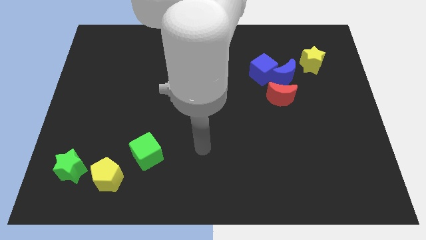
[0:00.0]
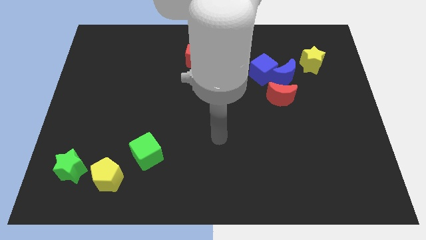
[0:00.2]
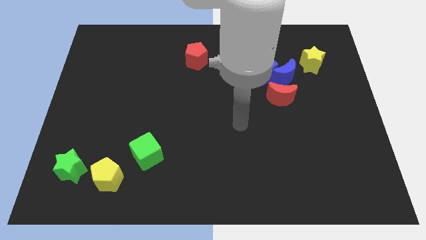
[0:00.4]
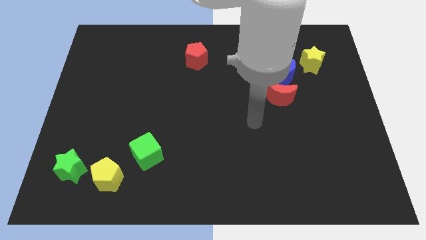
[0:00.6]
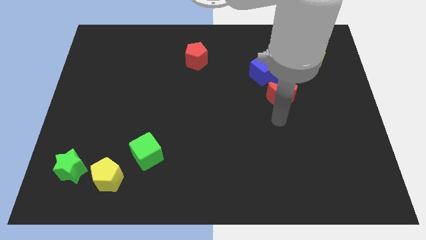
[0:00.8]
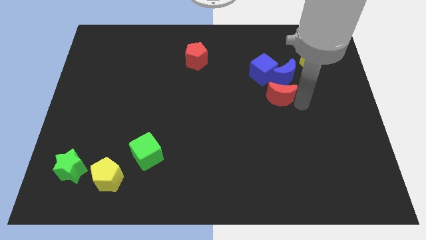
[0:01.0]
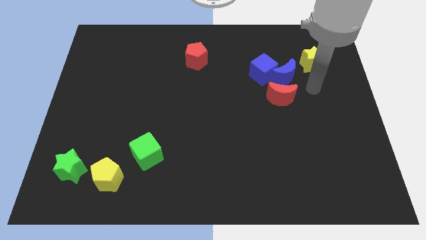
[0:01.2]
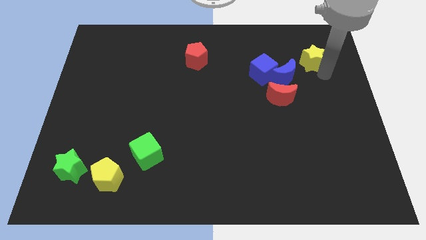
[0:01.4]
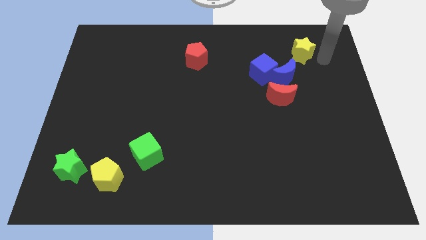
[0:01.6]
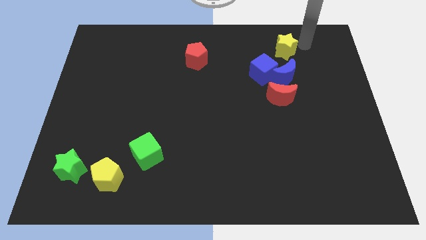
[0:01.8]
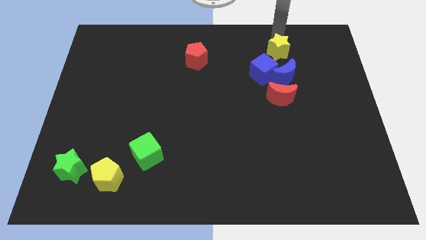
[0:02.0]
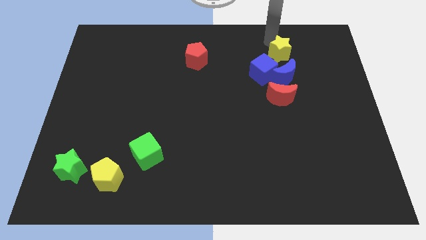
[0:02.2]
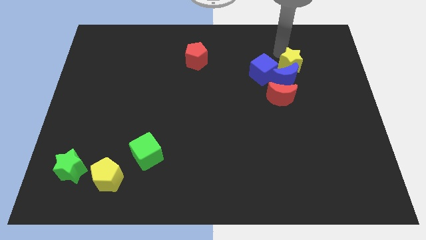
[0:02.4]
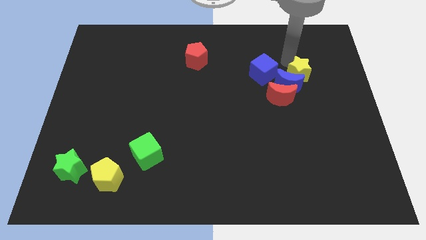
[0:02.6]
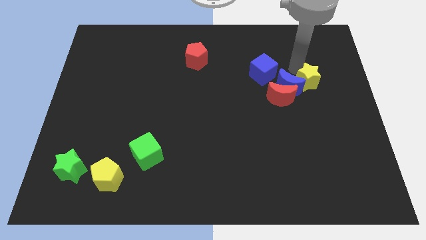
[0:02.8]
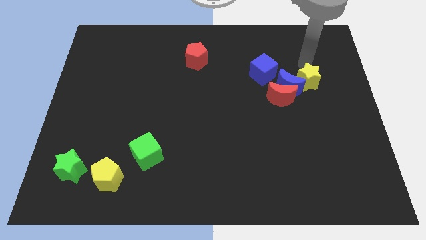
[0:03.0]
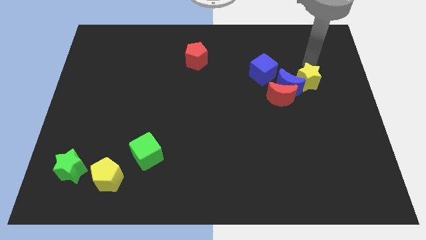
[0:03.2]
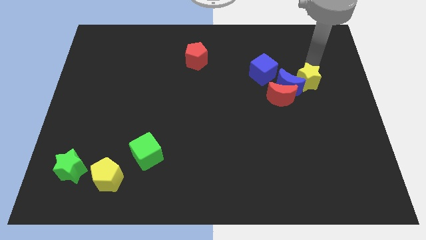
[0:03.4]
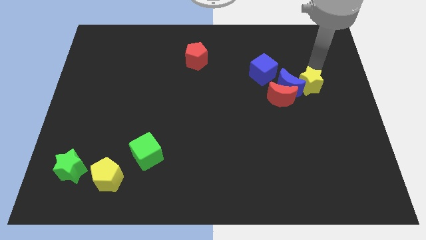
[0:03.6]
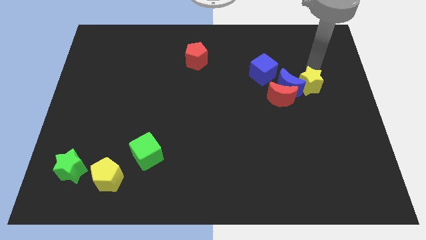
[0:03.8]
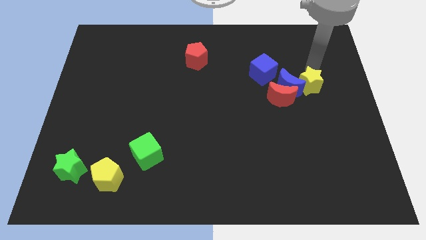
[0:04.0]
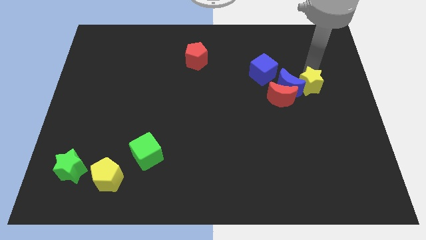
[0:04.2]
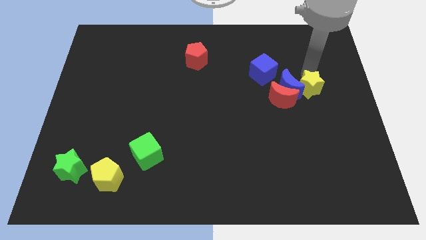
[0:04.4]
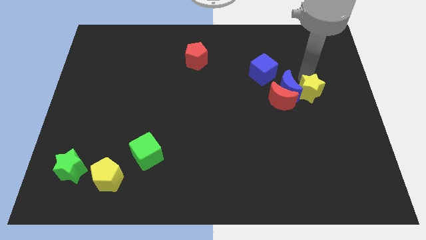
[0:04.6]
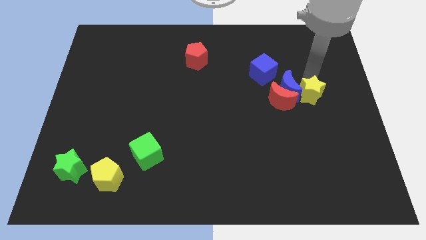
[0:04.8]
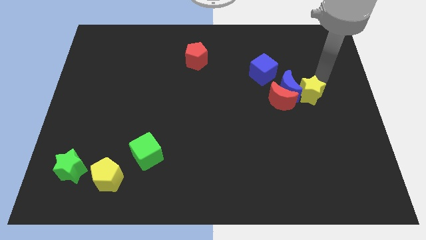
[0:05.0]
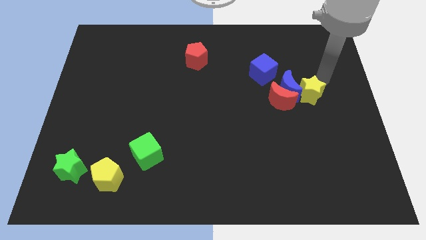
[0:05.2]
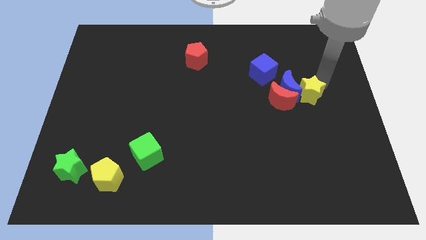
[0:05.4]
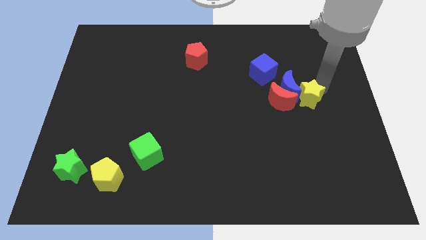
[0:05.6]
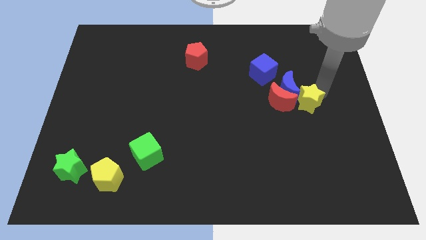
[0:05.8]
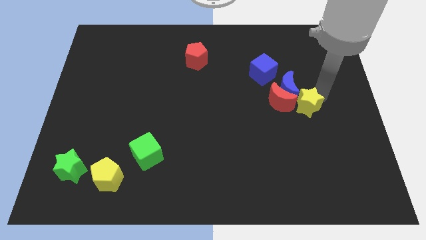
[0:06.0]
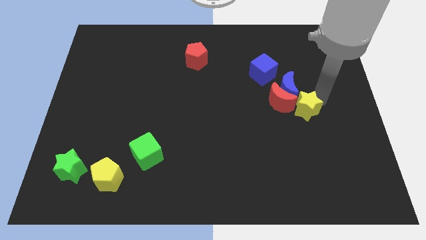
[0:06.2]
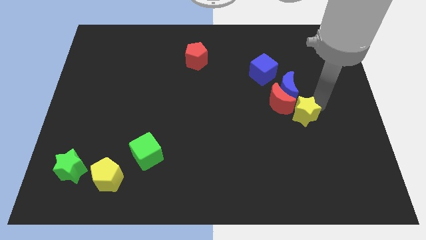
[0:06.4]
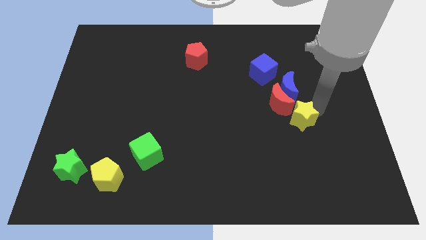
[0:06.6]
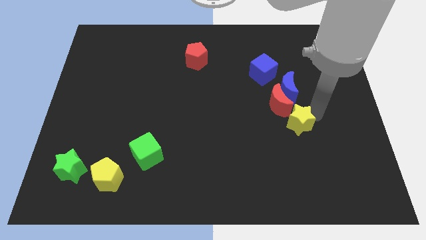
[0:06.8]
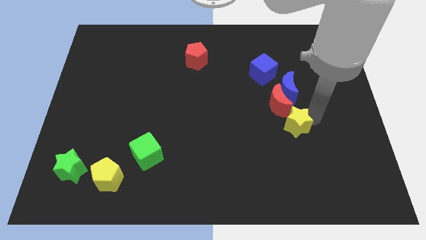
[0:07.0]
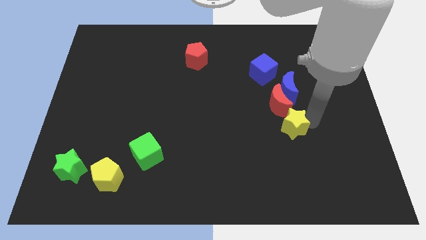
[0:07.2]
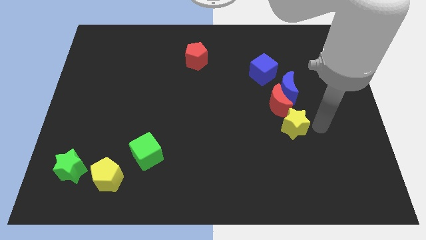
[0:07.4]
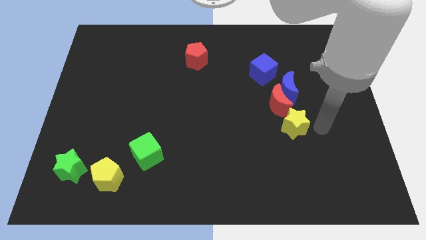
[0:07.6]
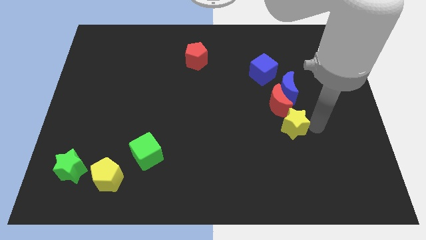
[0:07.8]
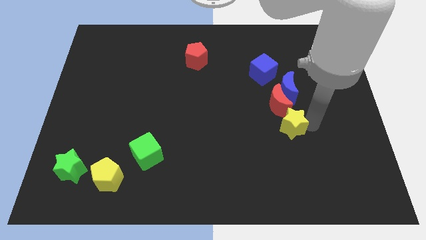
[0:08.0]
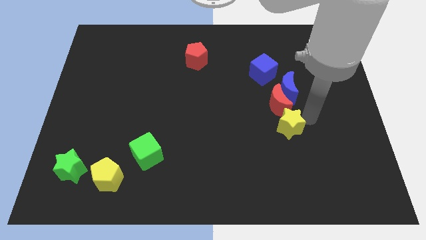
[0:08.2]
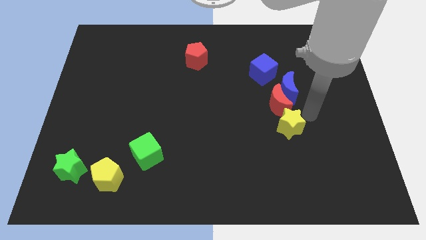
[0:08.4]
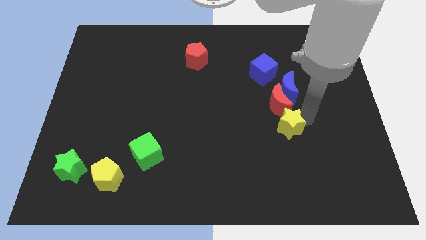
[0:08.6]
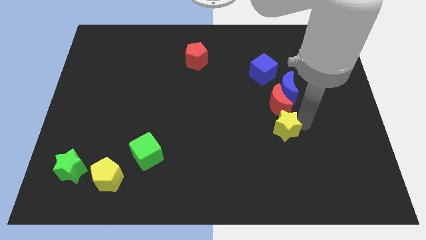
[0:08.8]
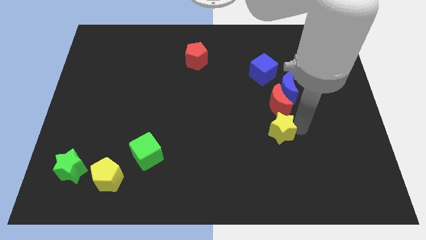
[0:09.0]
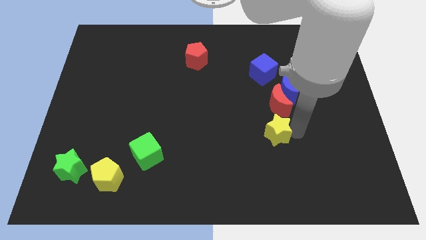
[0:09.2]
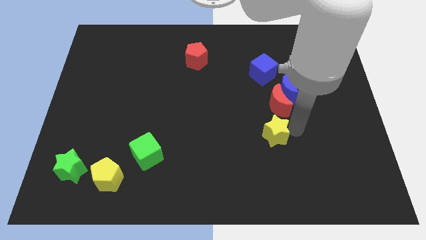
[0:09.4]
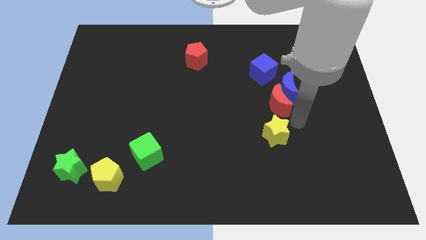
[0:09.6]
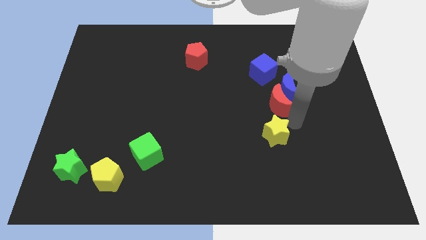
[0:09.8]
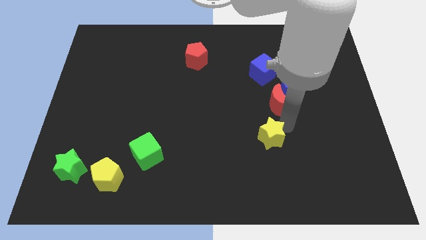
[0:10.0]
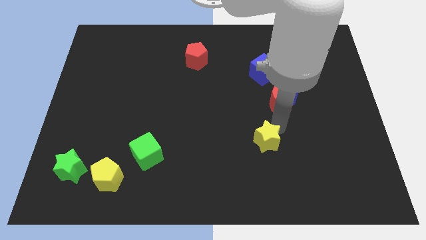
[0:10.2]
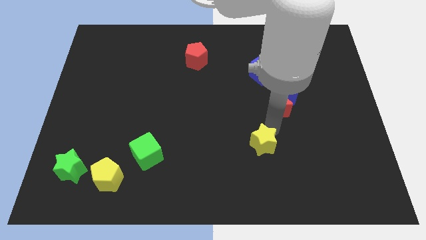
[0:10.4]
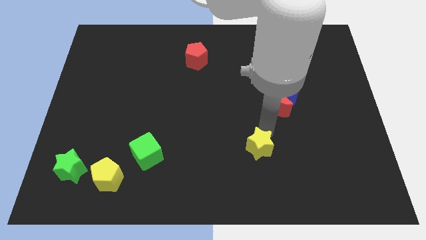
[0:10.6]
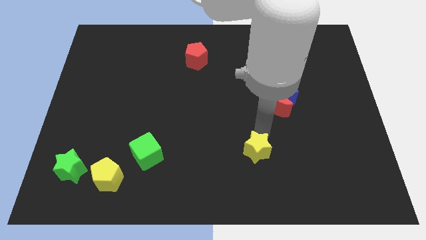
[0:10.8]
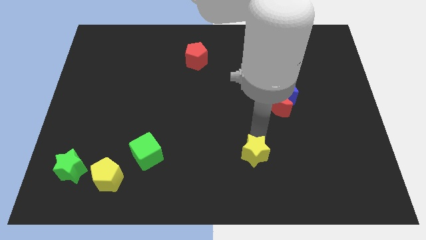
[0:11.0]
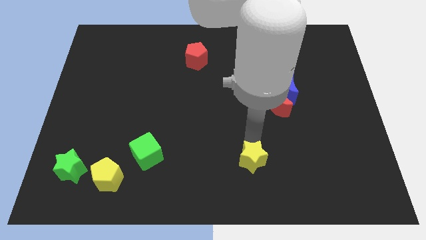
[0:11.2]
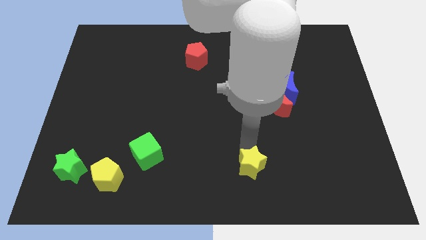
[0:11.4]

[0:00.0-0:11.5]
push the yellow star to the bottom side

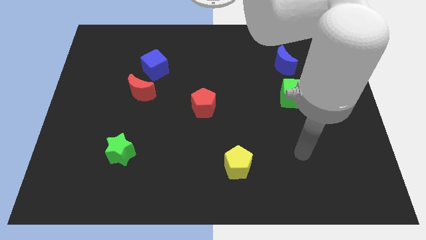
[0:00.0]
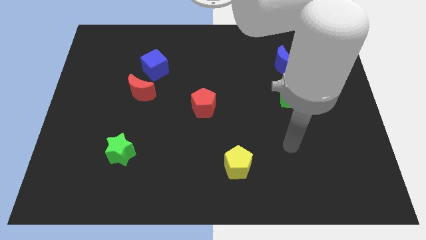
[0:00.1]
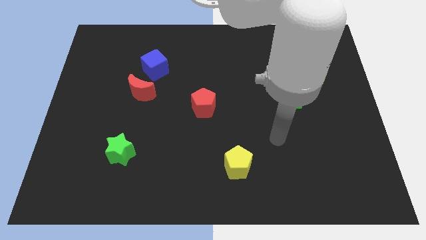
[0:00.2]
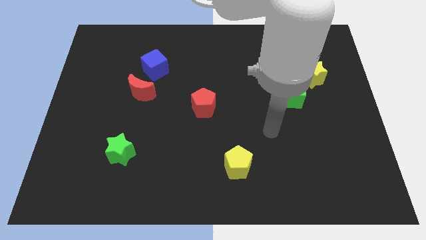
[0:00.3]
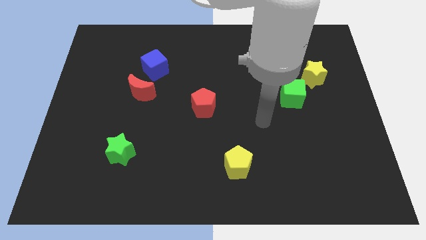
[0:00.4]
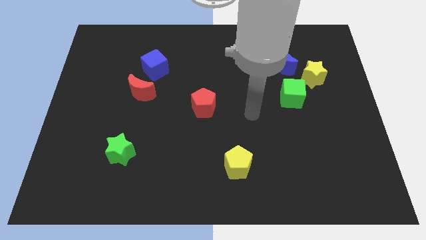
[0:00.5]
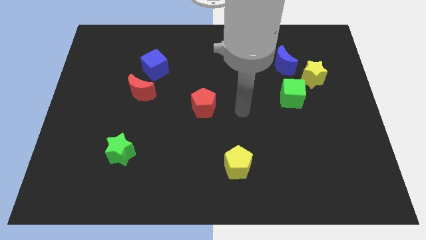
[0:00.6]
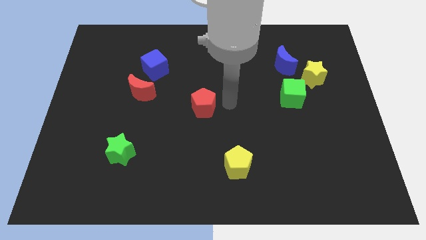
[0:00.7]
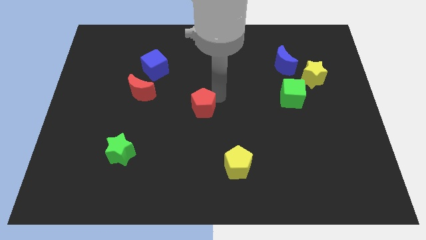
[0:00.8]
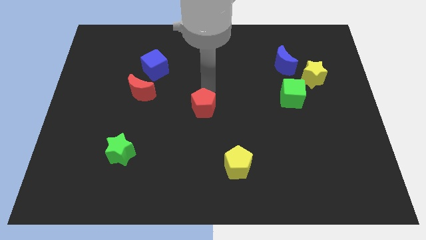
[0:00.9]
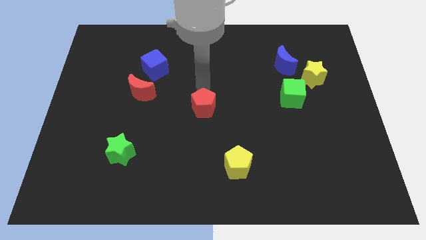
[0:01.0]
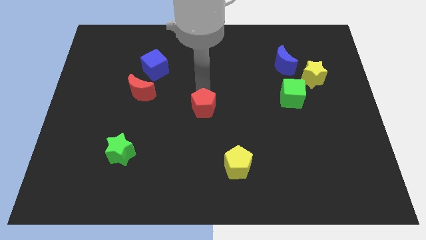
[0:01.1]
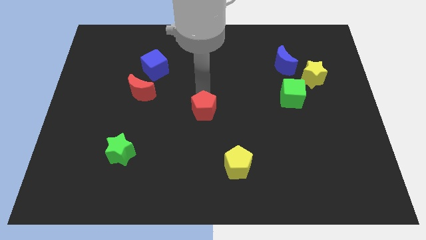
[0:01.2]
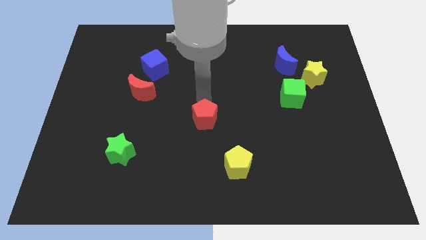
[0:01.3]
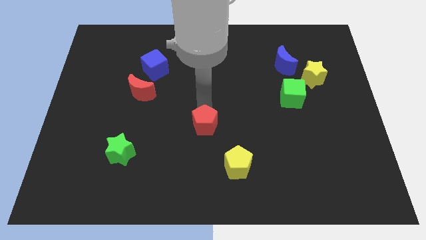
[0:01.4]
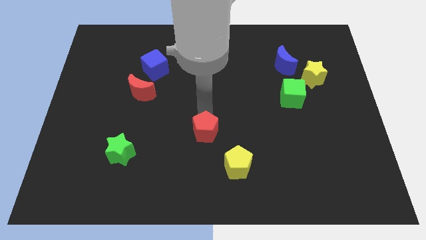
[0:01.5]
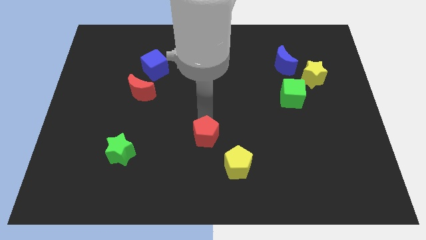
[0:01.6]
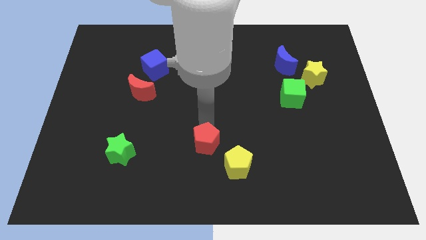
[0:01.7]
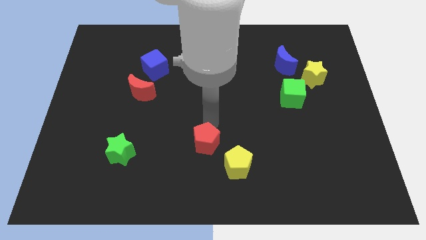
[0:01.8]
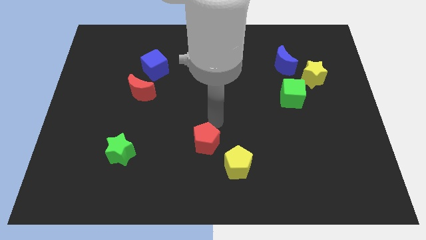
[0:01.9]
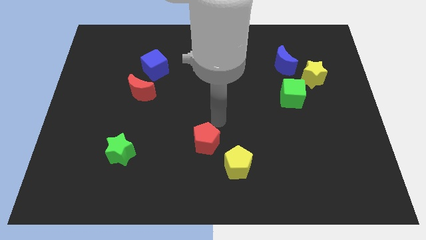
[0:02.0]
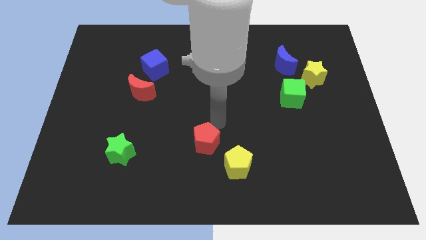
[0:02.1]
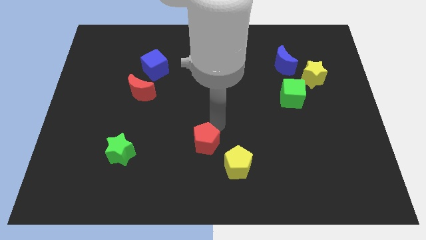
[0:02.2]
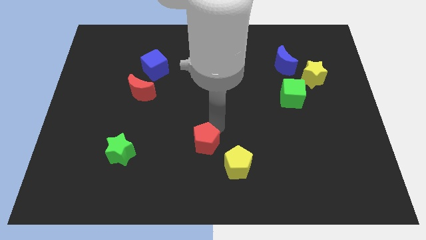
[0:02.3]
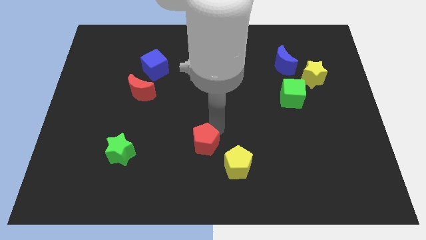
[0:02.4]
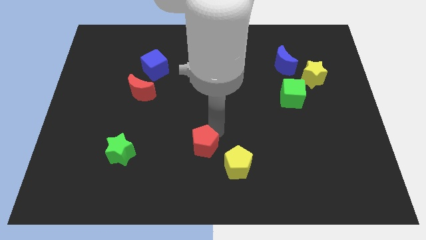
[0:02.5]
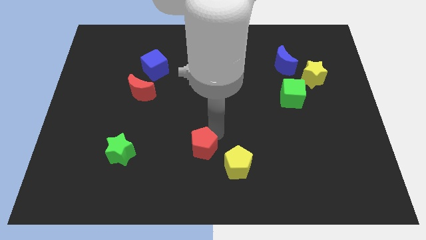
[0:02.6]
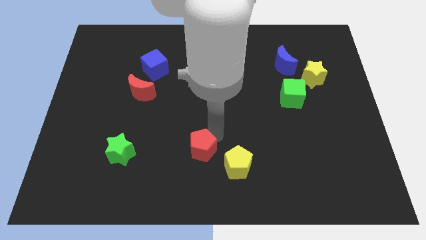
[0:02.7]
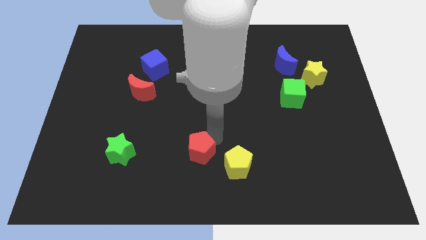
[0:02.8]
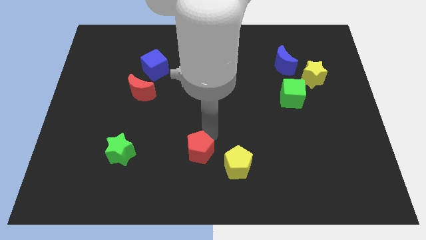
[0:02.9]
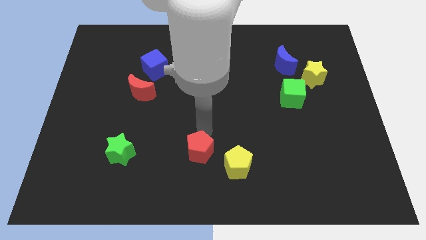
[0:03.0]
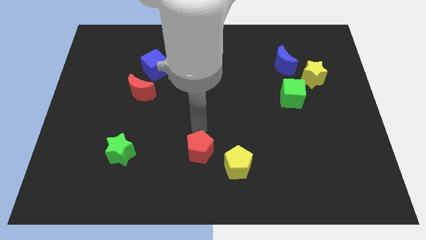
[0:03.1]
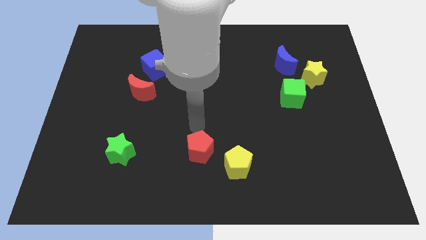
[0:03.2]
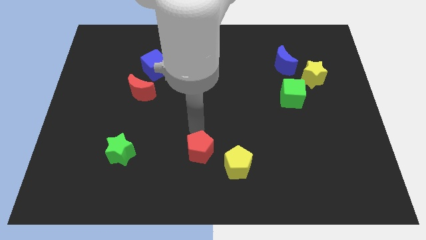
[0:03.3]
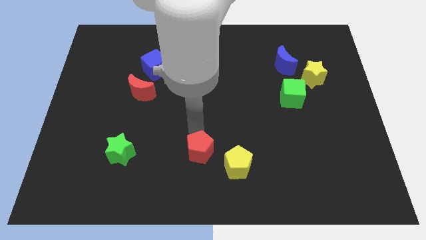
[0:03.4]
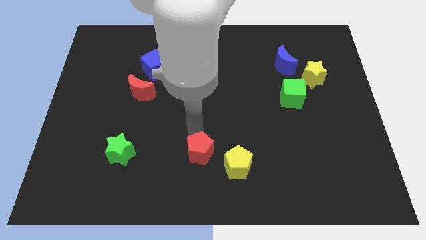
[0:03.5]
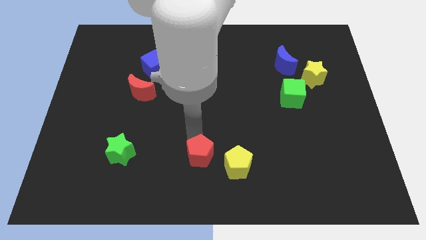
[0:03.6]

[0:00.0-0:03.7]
push the red pentagon to the bottom
